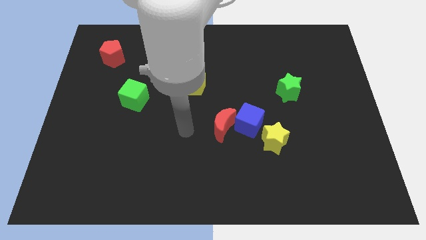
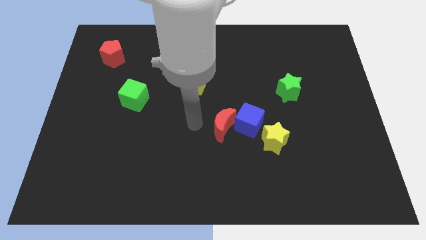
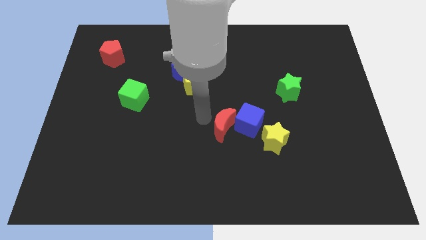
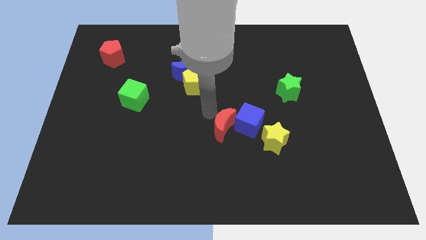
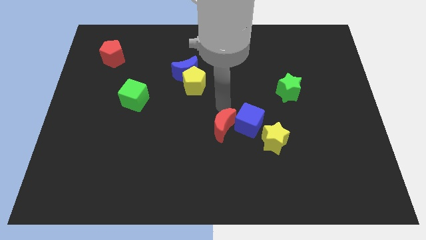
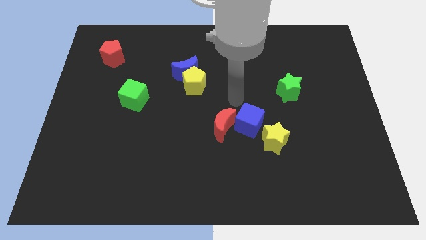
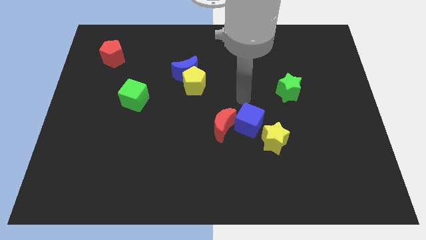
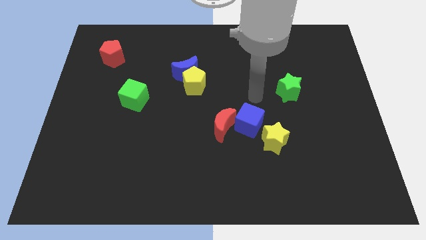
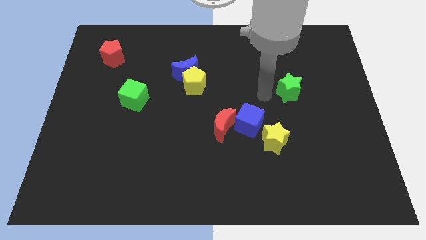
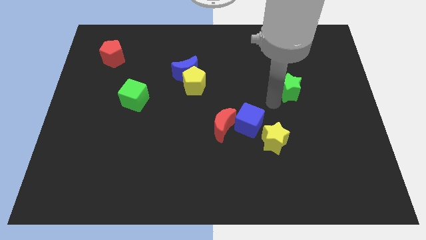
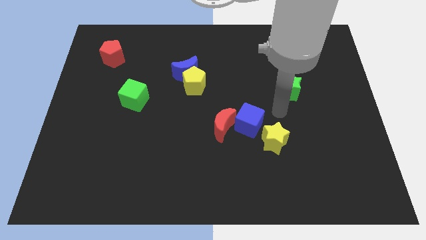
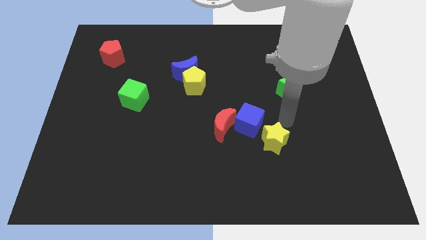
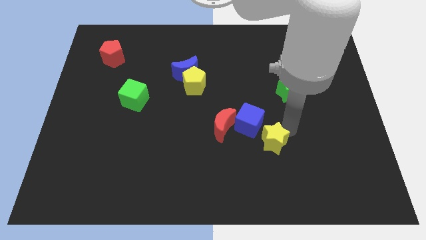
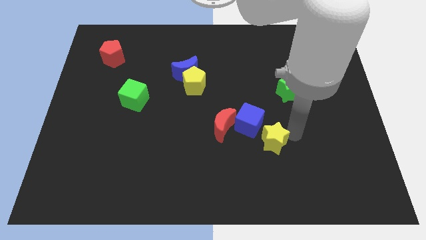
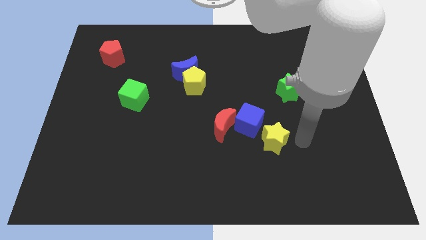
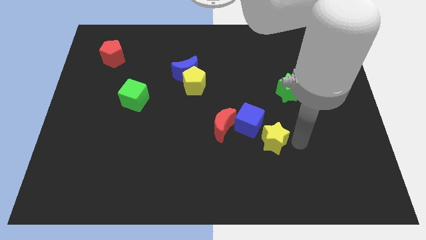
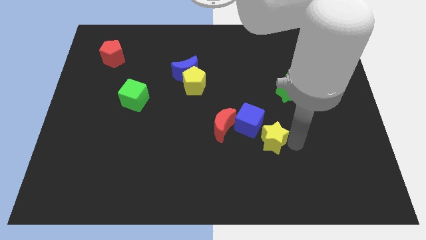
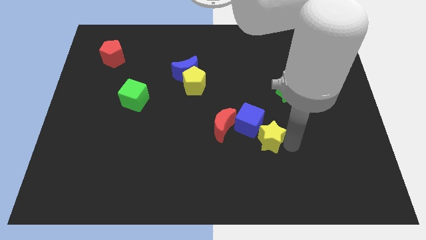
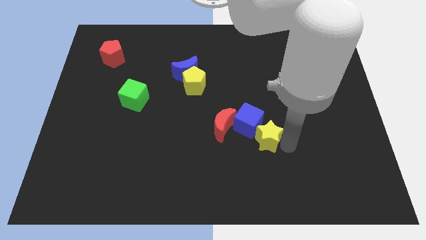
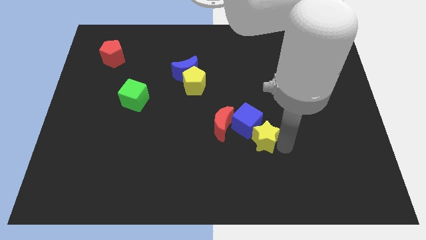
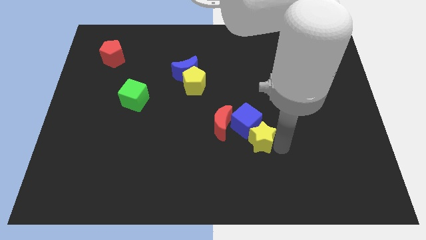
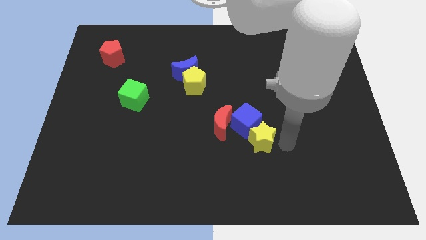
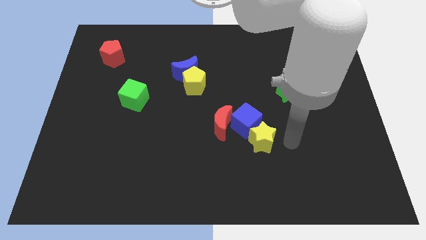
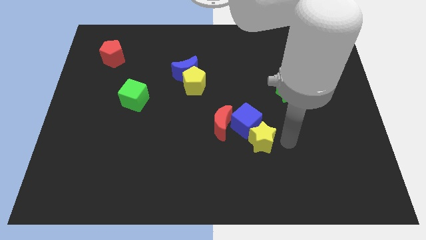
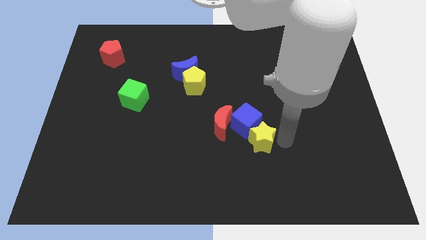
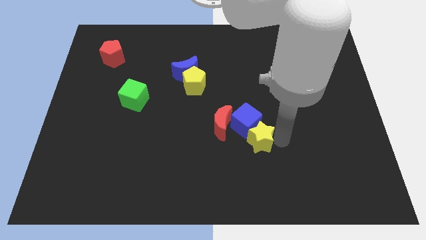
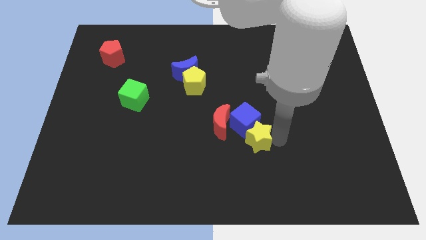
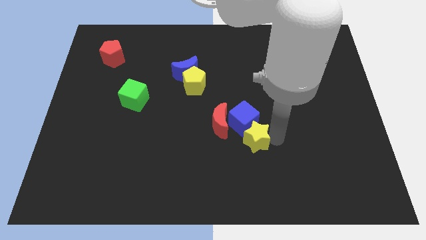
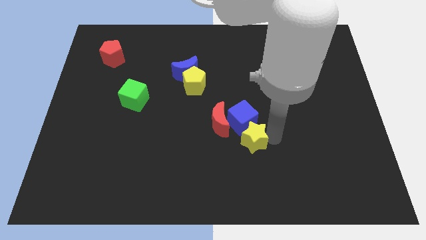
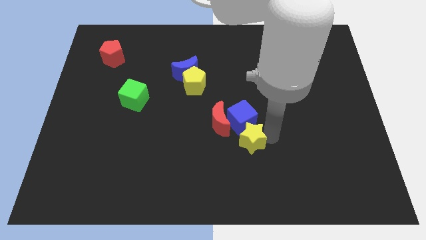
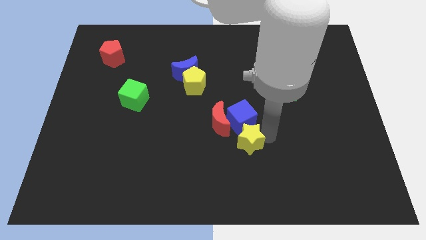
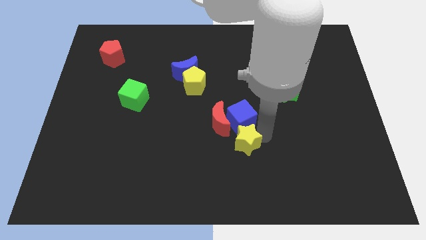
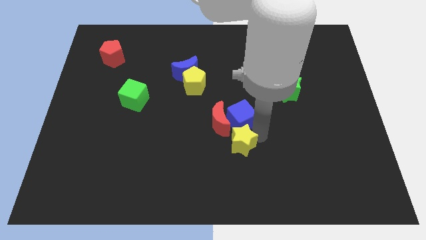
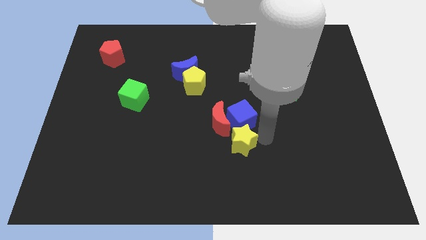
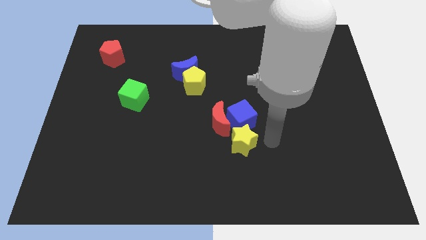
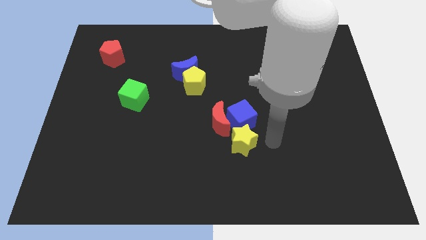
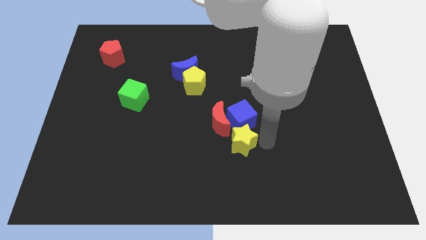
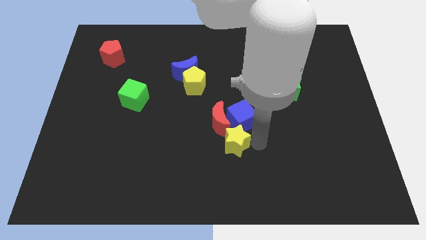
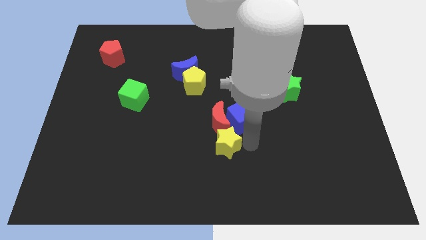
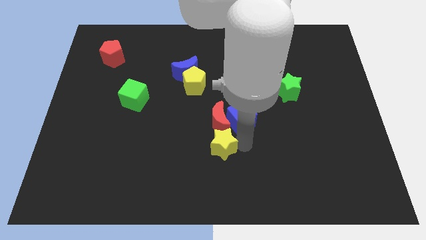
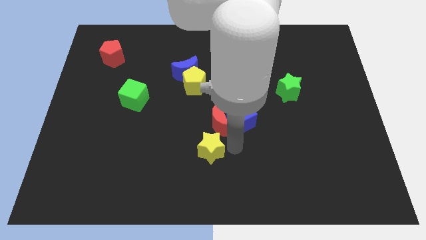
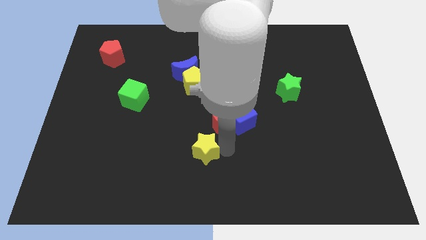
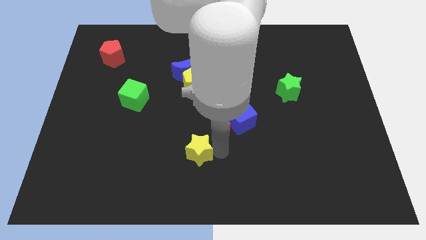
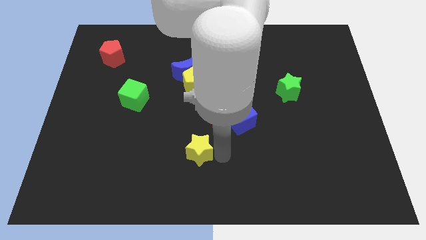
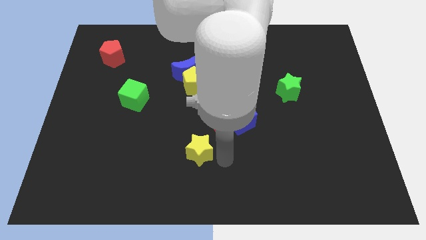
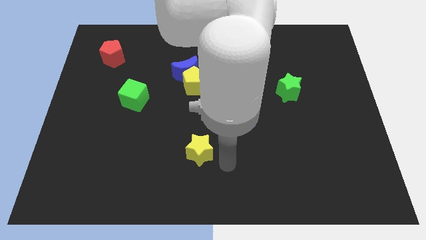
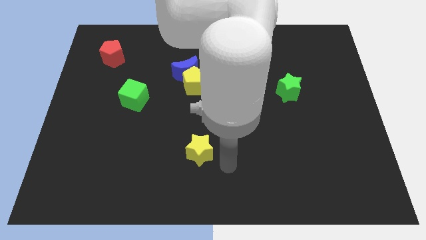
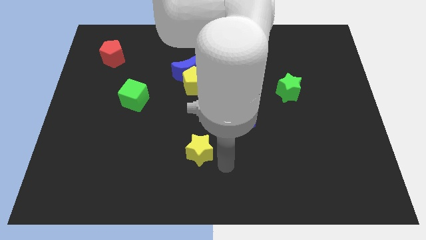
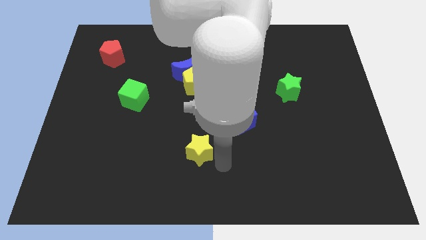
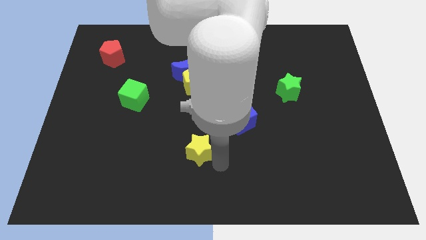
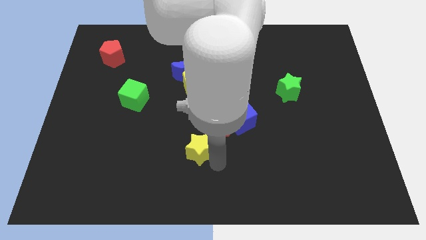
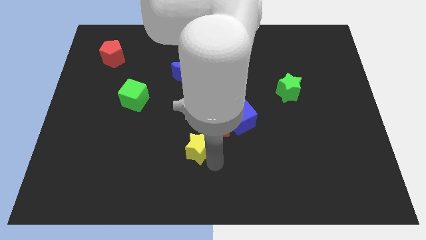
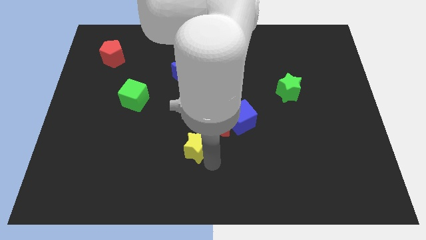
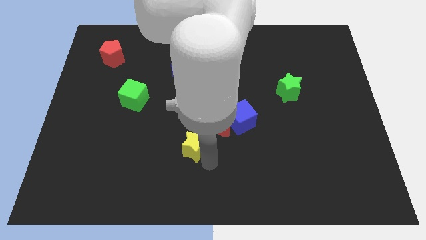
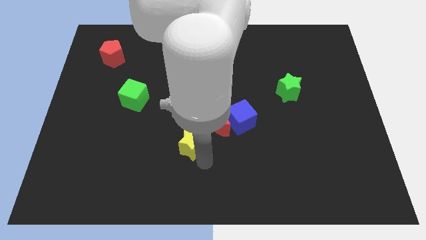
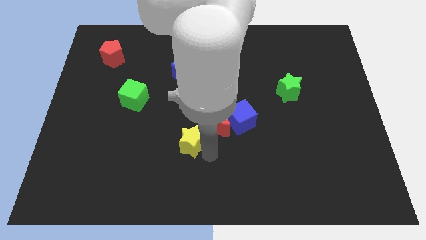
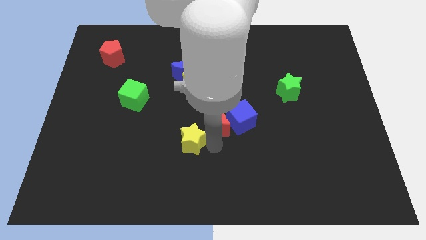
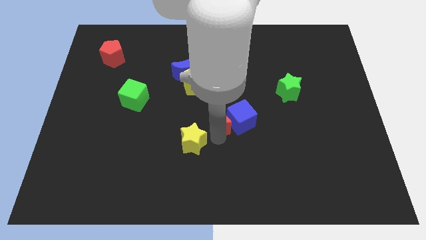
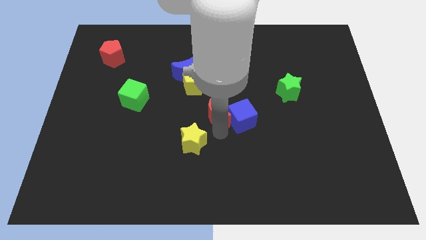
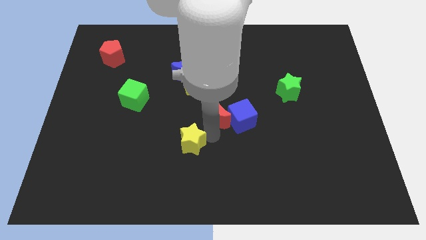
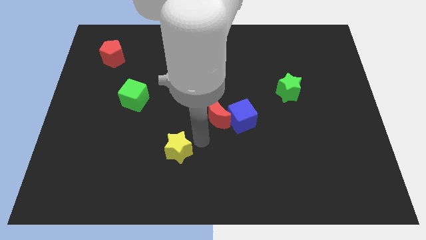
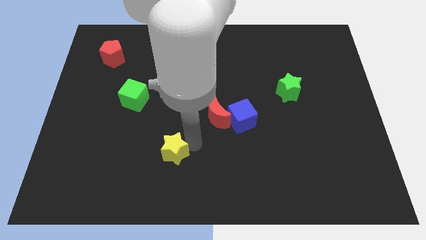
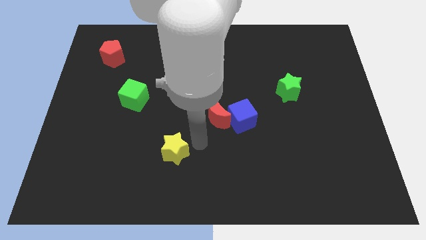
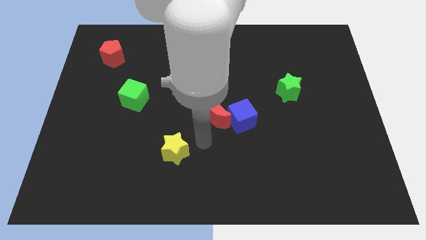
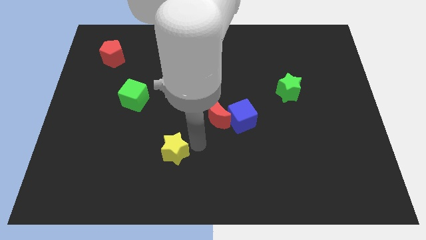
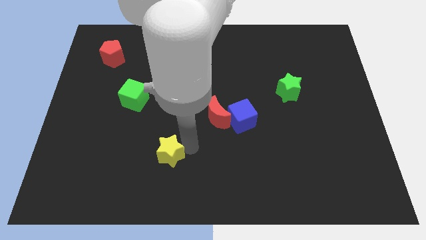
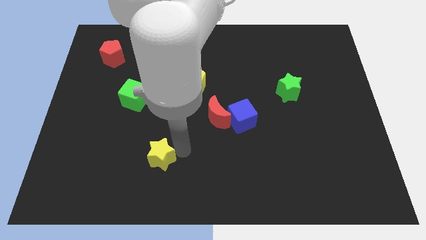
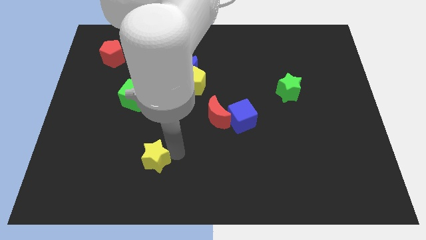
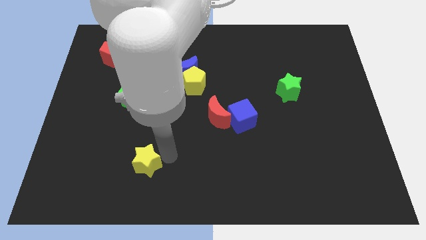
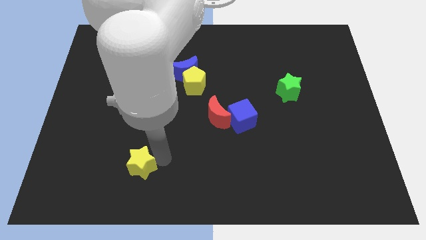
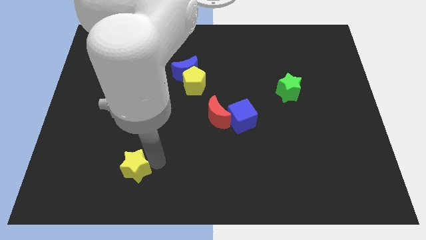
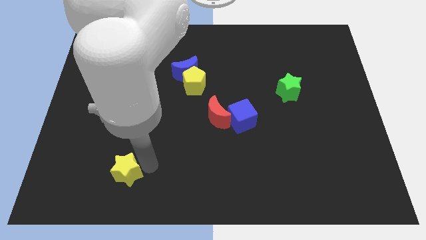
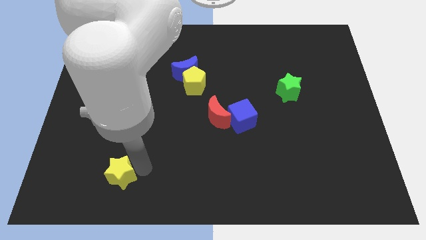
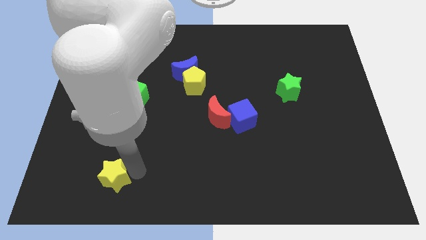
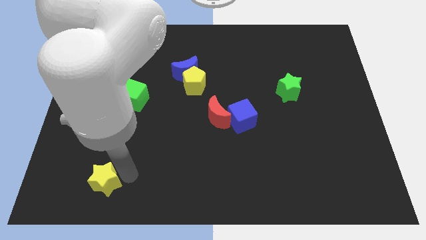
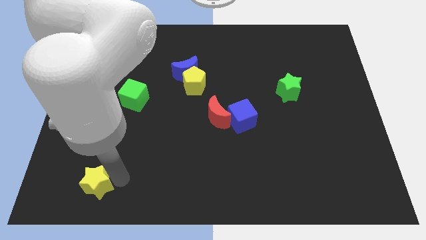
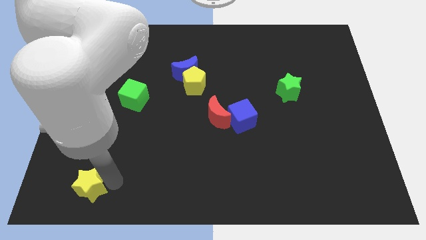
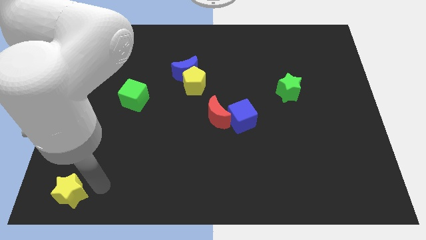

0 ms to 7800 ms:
move the yellow star to the bottom left
